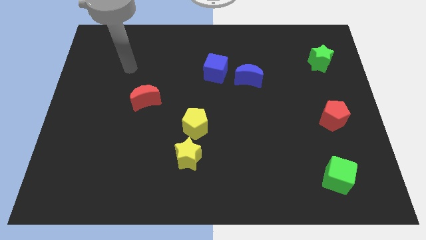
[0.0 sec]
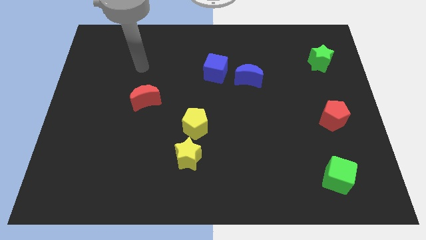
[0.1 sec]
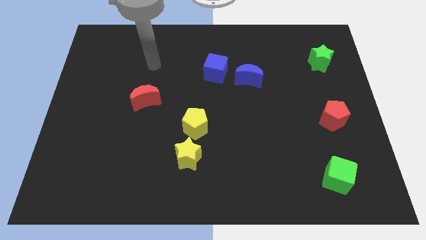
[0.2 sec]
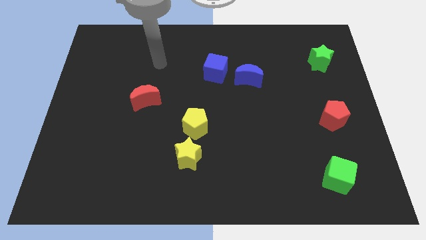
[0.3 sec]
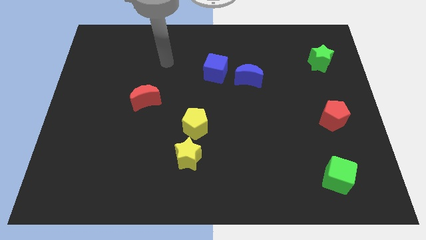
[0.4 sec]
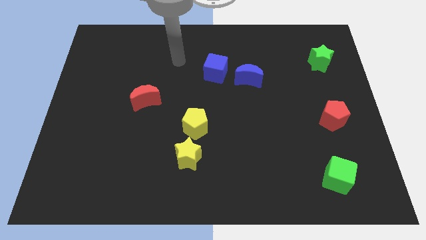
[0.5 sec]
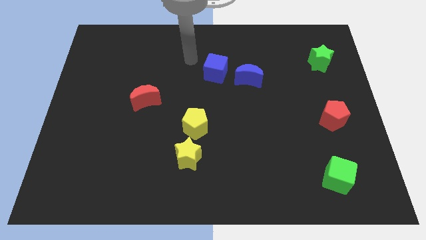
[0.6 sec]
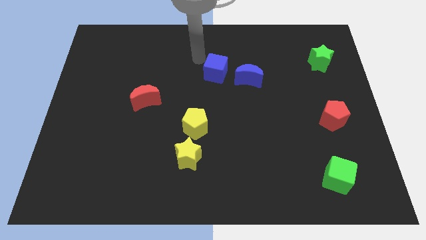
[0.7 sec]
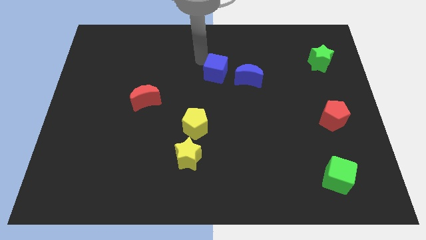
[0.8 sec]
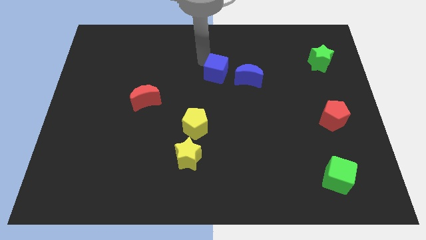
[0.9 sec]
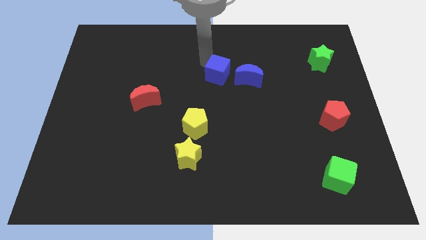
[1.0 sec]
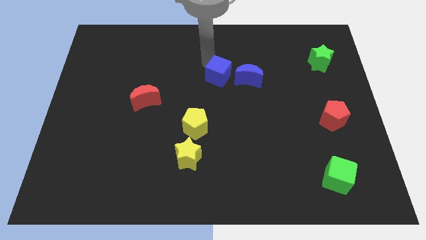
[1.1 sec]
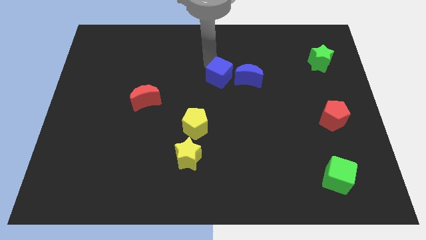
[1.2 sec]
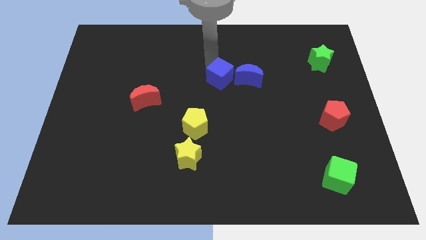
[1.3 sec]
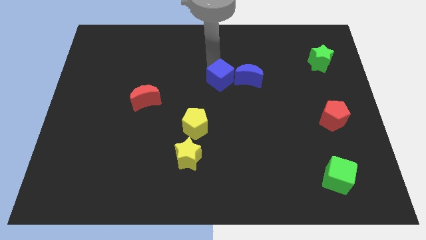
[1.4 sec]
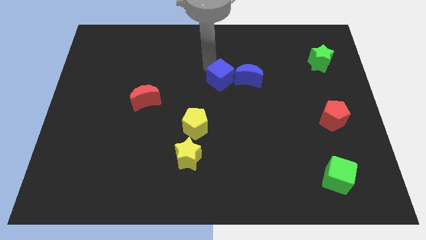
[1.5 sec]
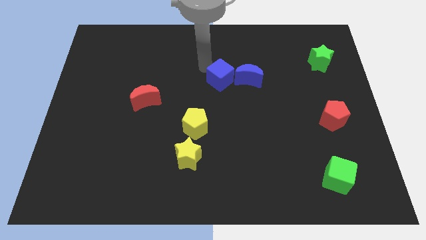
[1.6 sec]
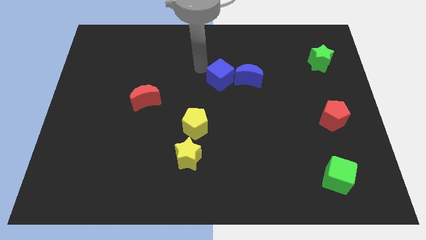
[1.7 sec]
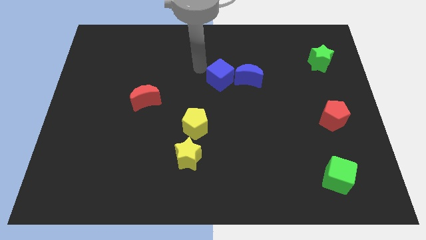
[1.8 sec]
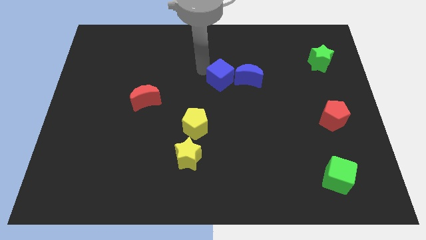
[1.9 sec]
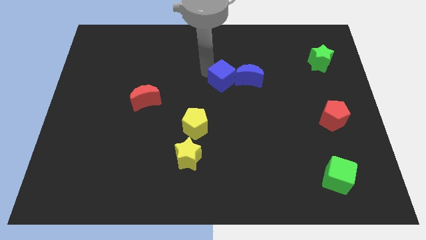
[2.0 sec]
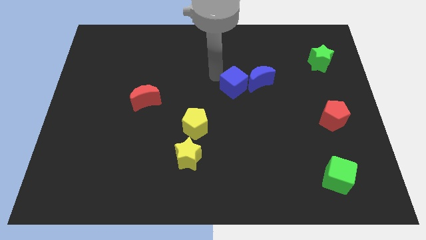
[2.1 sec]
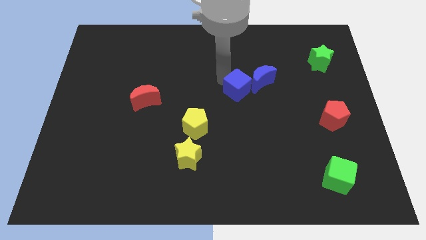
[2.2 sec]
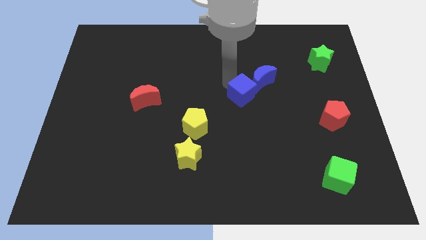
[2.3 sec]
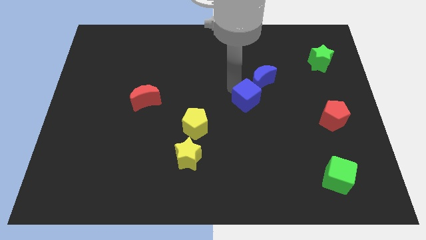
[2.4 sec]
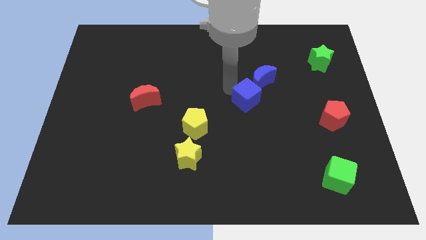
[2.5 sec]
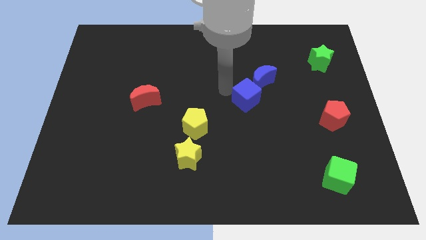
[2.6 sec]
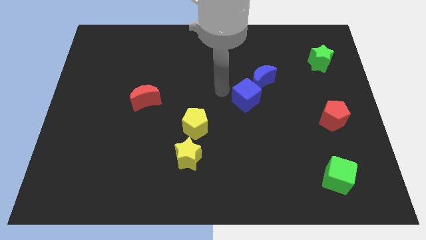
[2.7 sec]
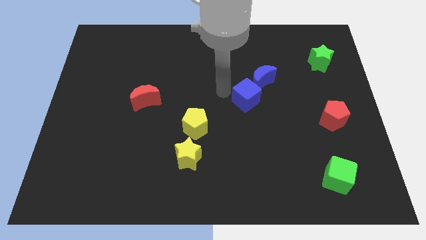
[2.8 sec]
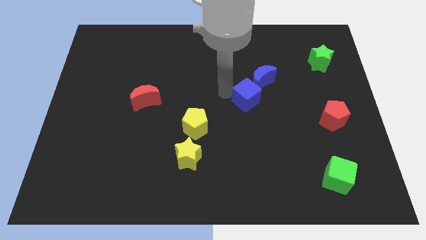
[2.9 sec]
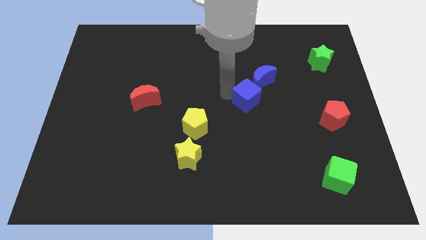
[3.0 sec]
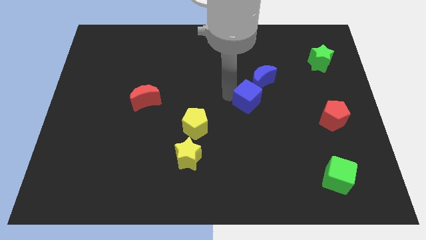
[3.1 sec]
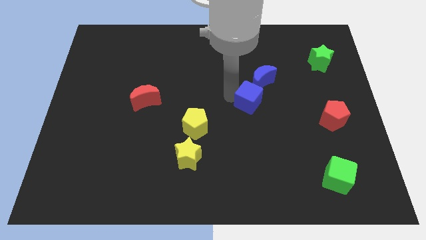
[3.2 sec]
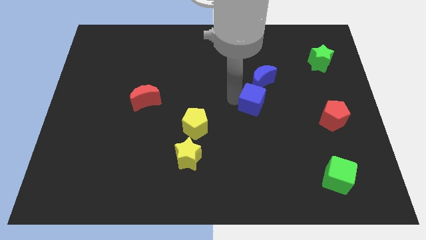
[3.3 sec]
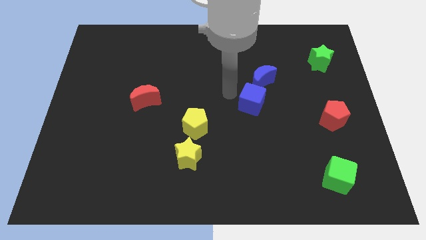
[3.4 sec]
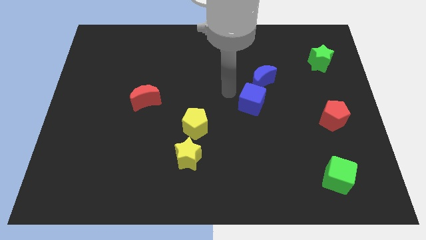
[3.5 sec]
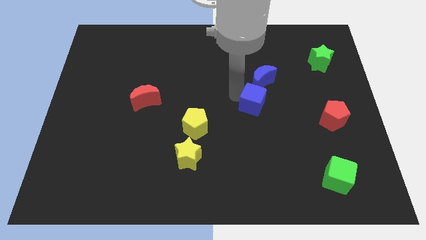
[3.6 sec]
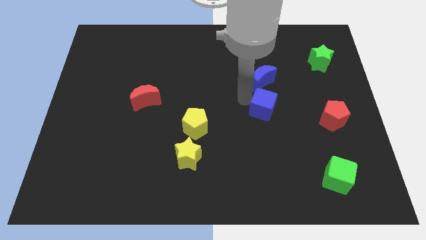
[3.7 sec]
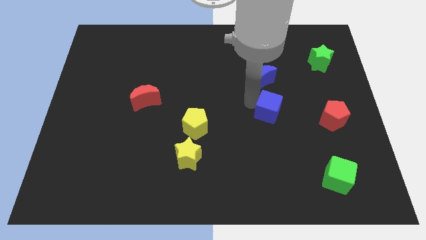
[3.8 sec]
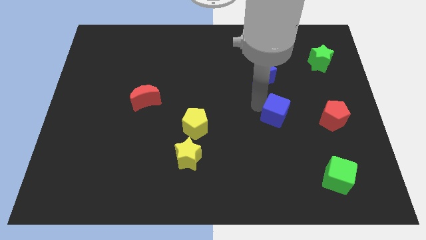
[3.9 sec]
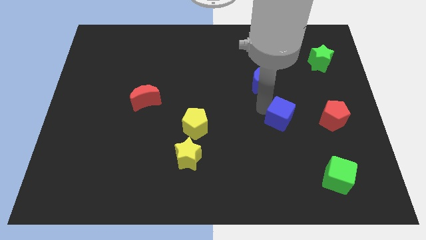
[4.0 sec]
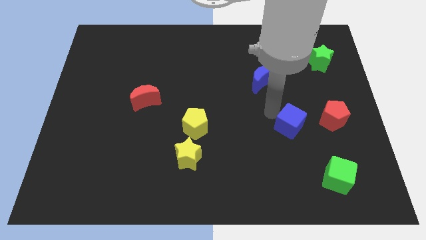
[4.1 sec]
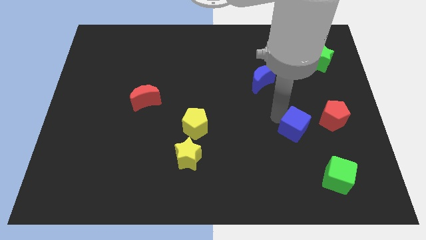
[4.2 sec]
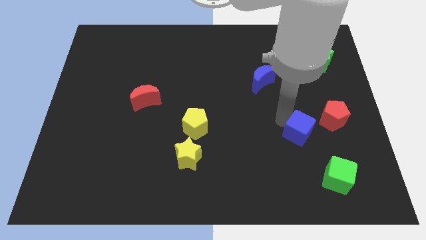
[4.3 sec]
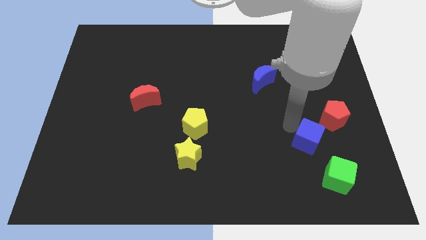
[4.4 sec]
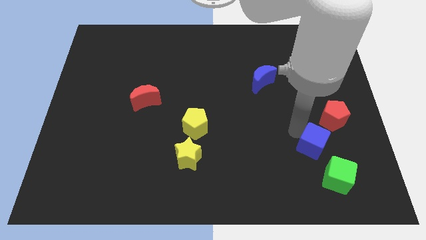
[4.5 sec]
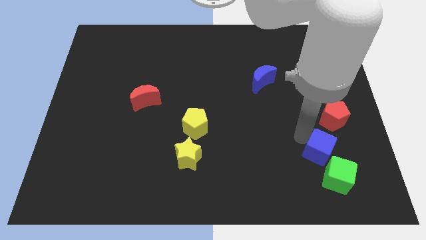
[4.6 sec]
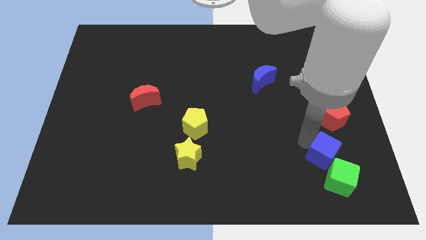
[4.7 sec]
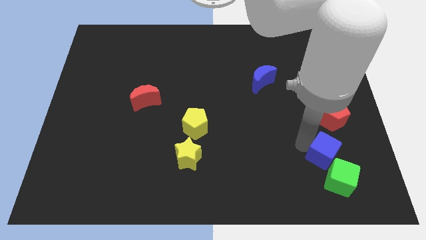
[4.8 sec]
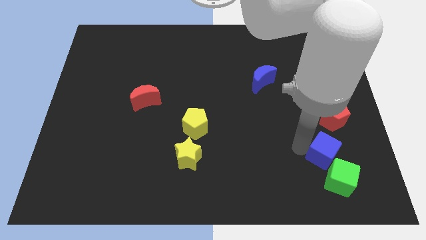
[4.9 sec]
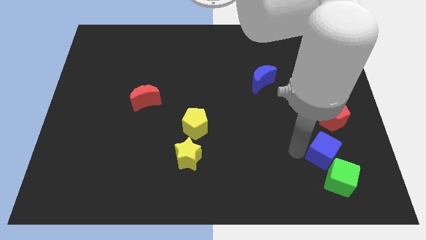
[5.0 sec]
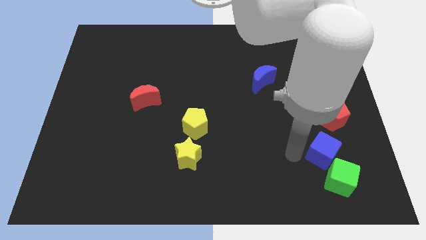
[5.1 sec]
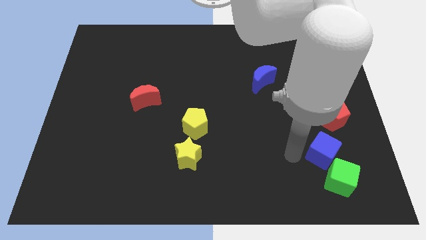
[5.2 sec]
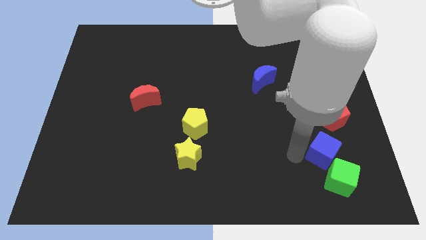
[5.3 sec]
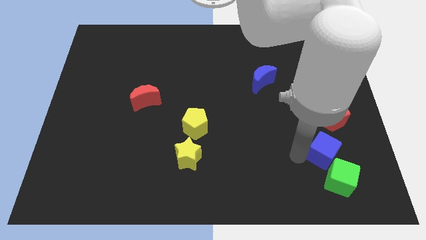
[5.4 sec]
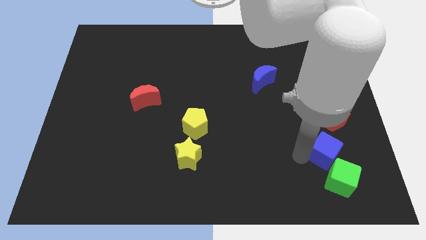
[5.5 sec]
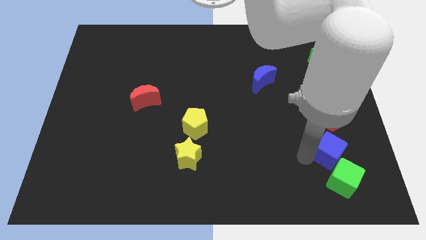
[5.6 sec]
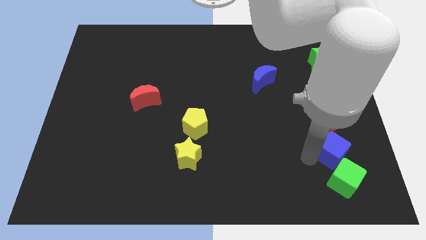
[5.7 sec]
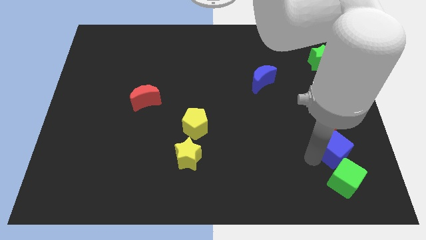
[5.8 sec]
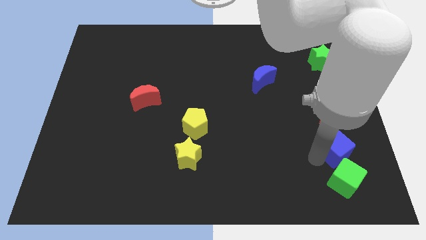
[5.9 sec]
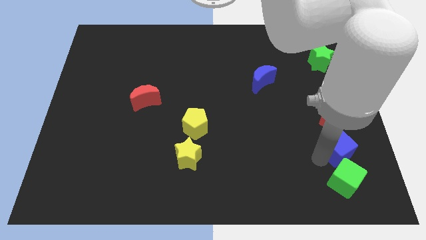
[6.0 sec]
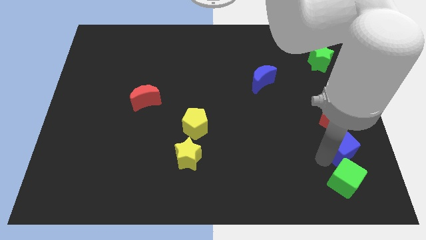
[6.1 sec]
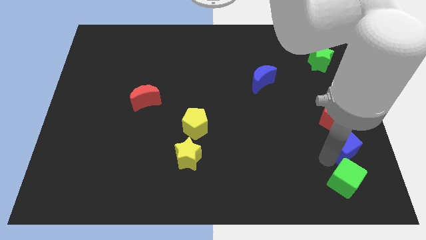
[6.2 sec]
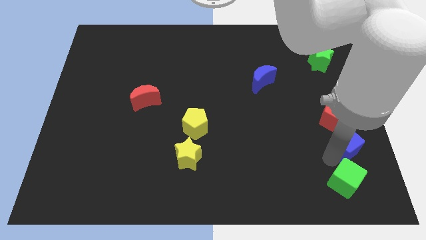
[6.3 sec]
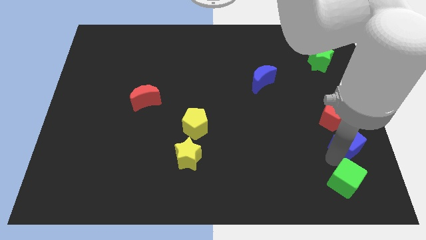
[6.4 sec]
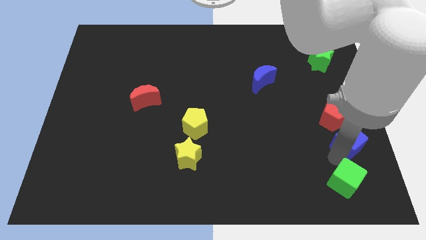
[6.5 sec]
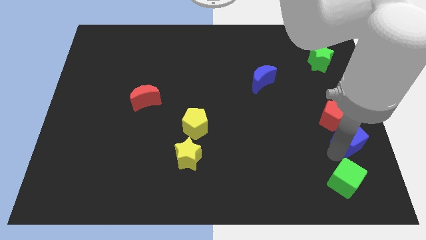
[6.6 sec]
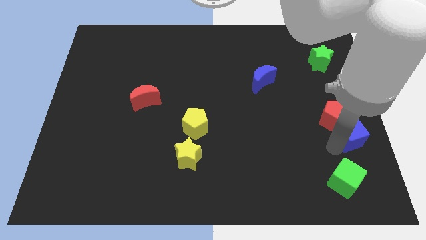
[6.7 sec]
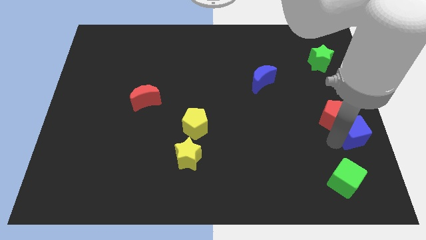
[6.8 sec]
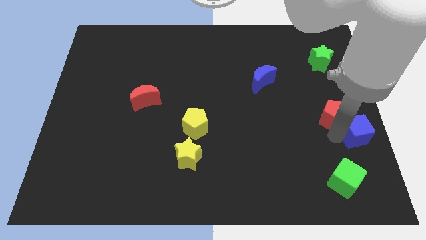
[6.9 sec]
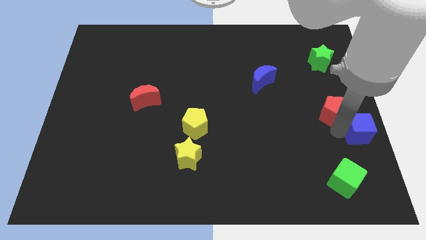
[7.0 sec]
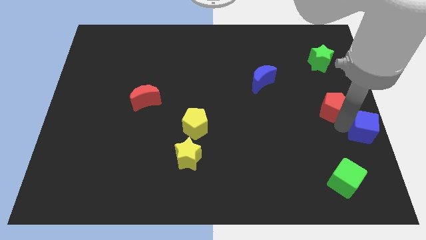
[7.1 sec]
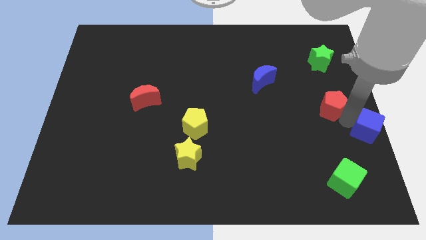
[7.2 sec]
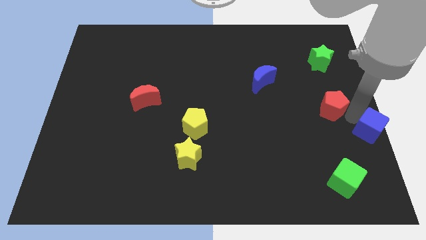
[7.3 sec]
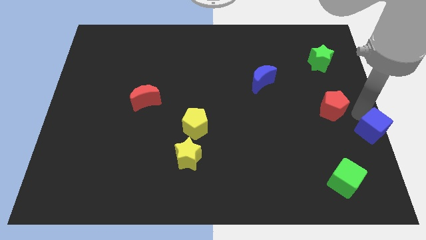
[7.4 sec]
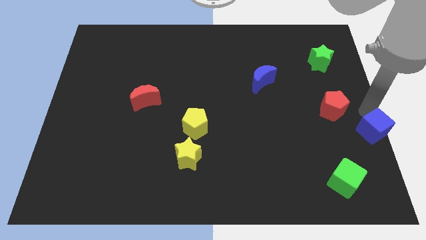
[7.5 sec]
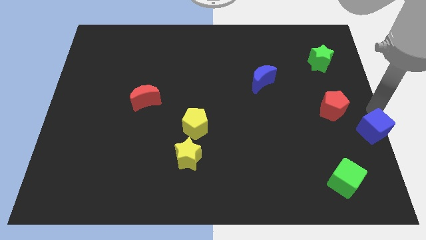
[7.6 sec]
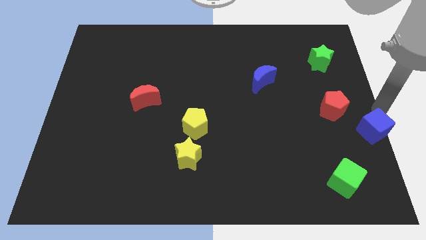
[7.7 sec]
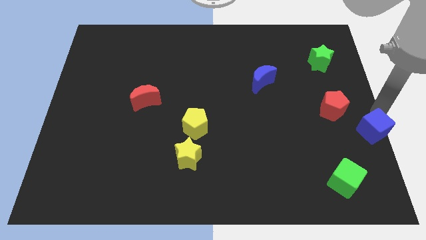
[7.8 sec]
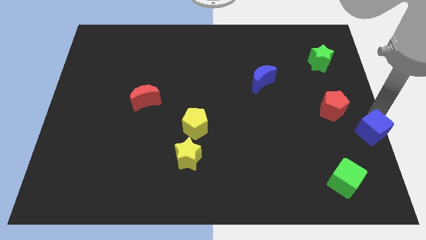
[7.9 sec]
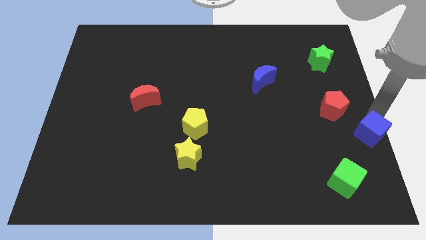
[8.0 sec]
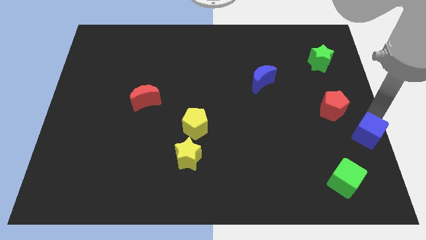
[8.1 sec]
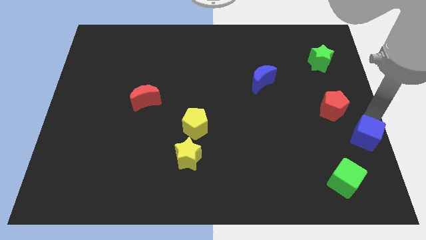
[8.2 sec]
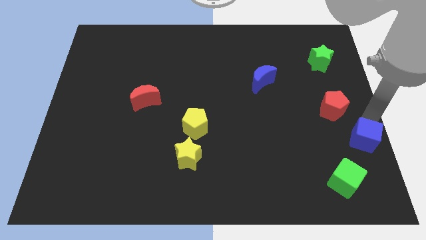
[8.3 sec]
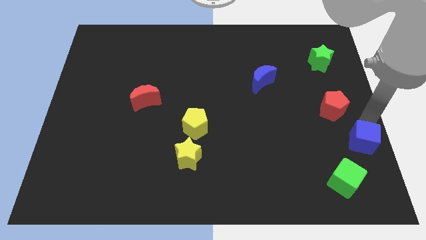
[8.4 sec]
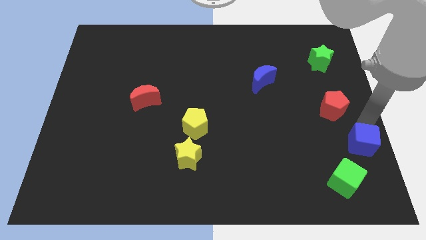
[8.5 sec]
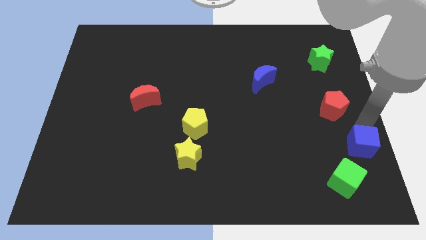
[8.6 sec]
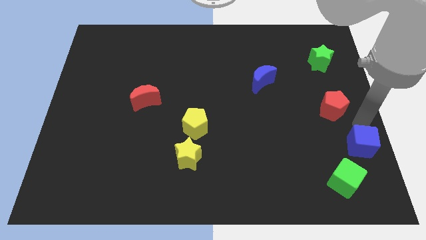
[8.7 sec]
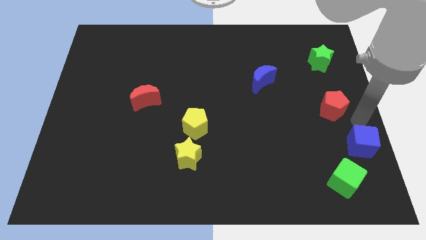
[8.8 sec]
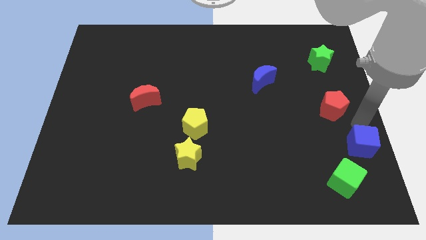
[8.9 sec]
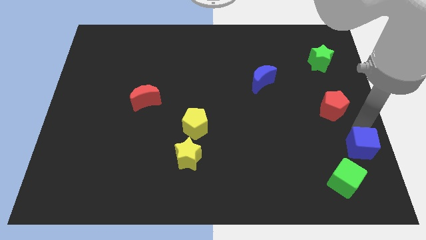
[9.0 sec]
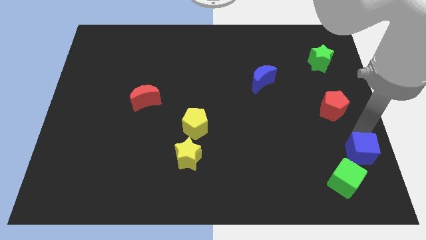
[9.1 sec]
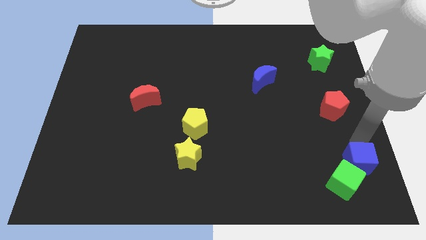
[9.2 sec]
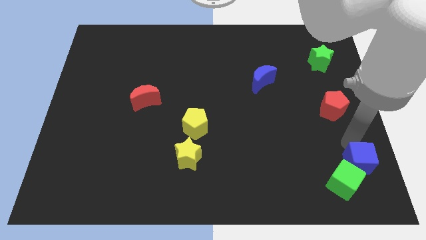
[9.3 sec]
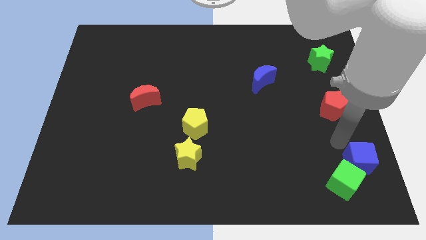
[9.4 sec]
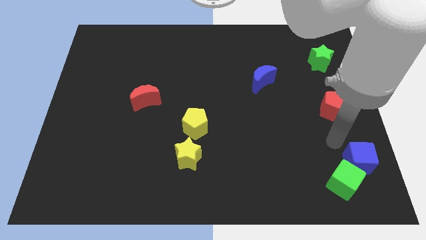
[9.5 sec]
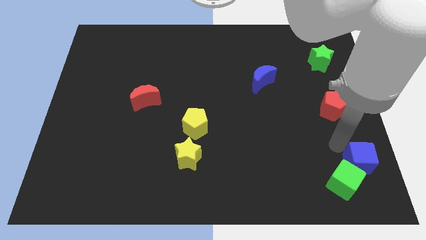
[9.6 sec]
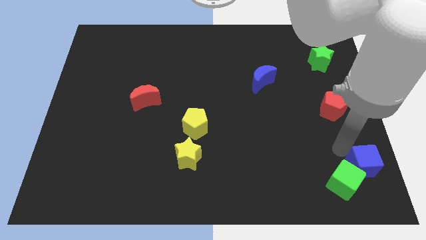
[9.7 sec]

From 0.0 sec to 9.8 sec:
push the blue cube to the bottom right corner
